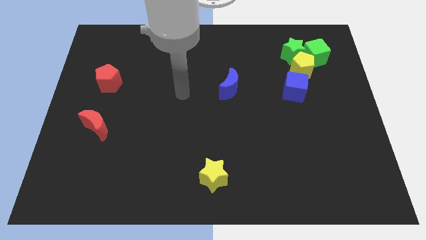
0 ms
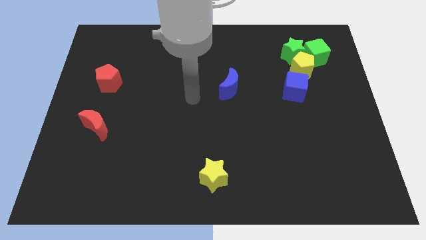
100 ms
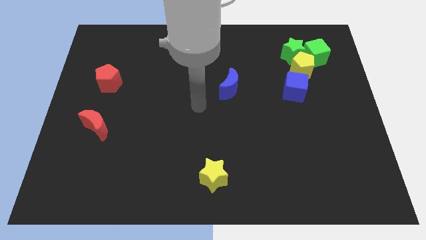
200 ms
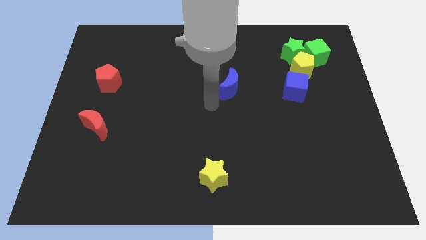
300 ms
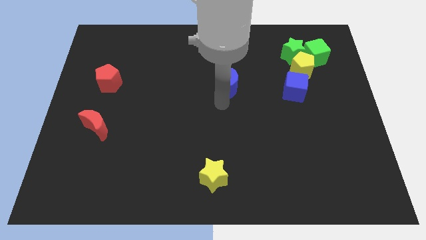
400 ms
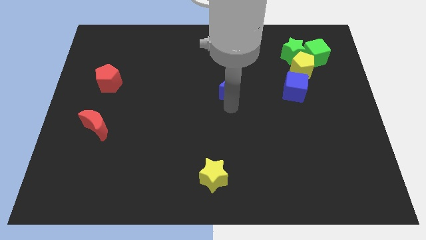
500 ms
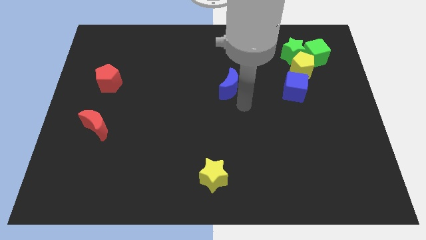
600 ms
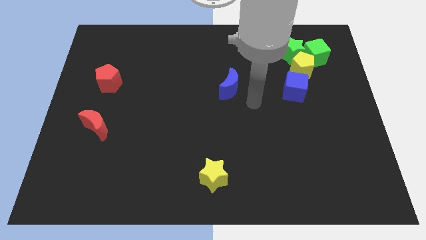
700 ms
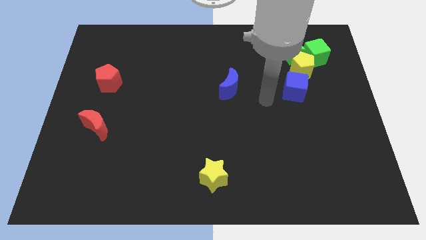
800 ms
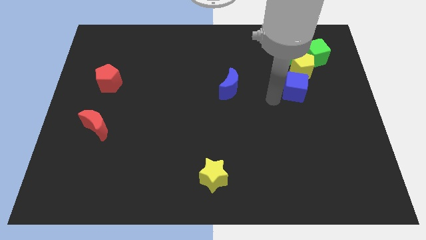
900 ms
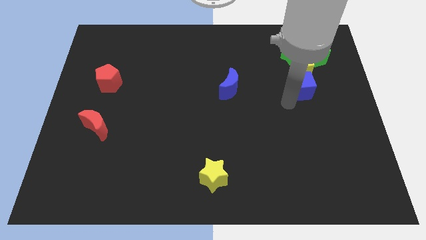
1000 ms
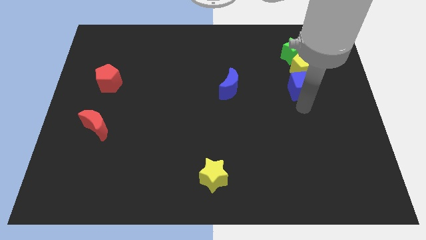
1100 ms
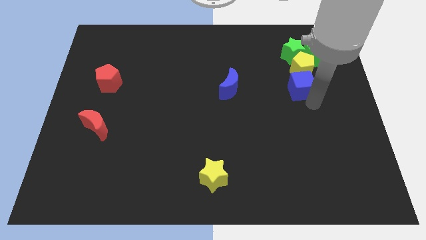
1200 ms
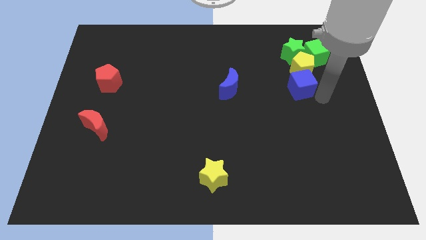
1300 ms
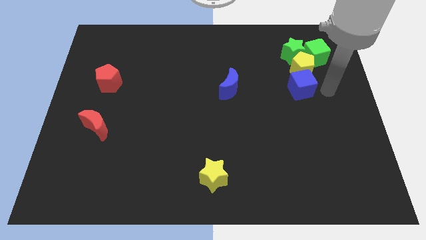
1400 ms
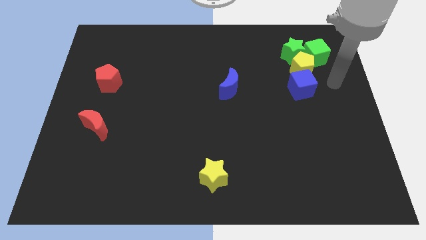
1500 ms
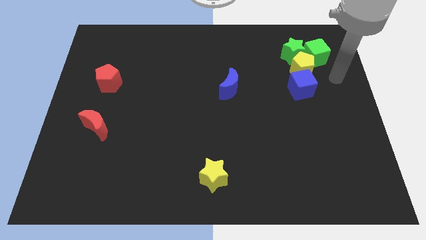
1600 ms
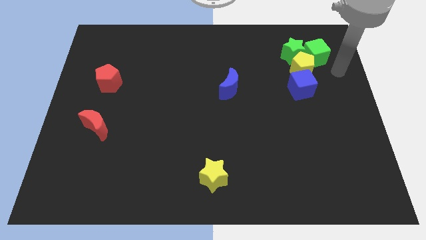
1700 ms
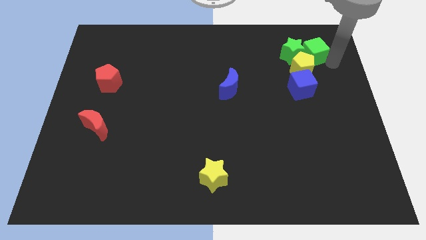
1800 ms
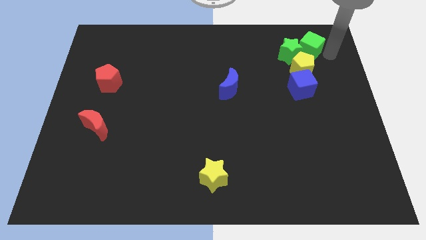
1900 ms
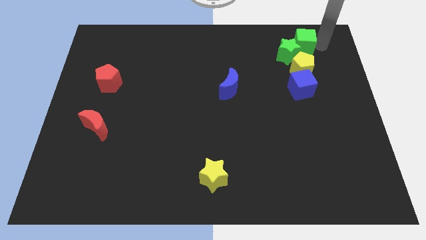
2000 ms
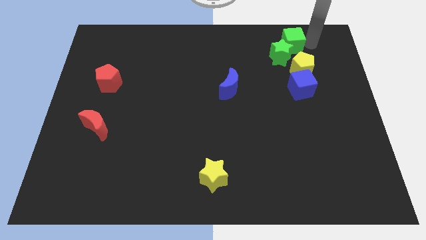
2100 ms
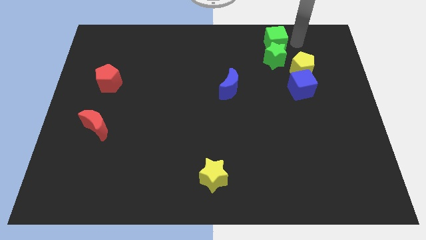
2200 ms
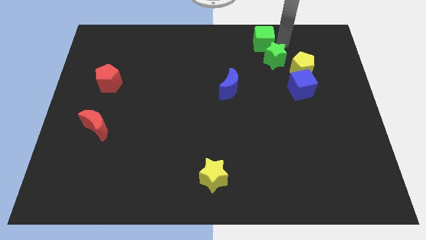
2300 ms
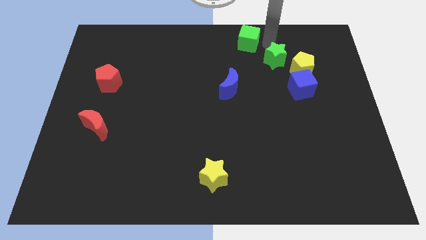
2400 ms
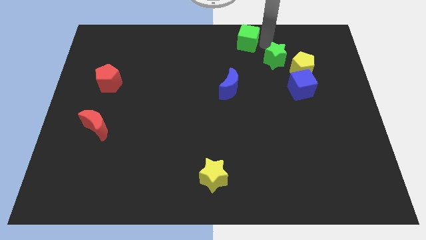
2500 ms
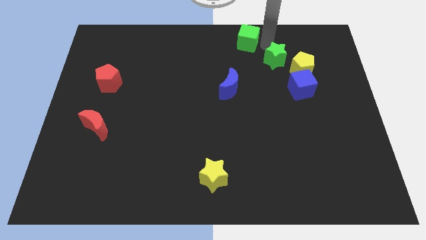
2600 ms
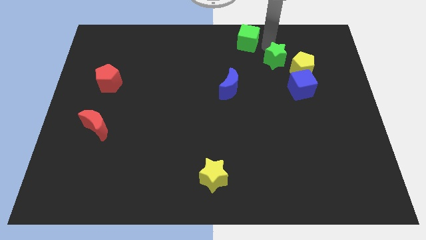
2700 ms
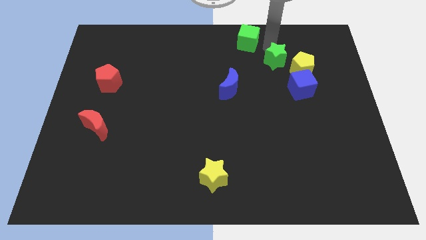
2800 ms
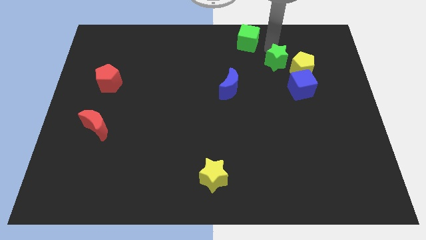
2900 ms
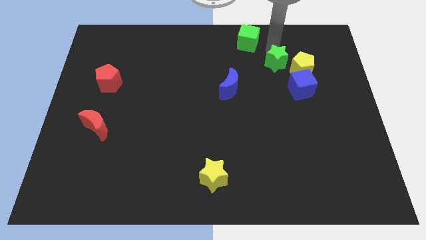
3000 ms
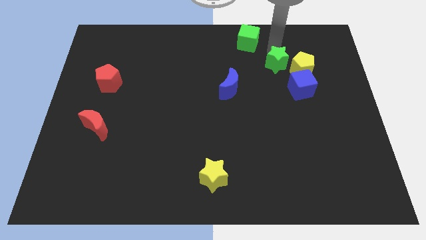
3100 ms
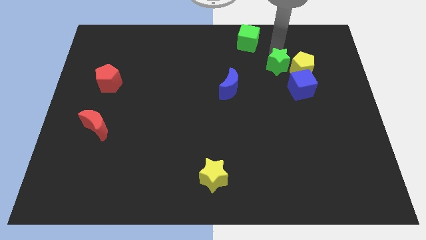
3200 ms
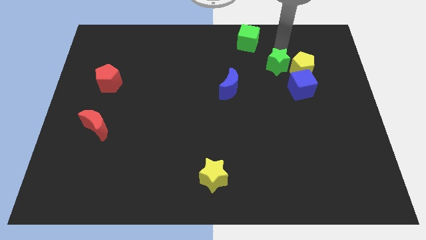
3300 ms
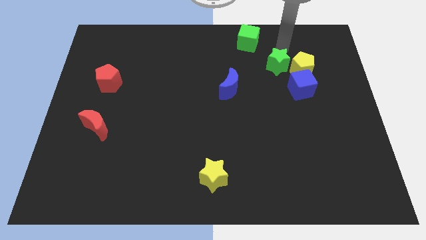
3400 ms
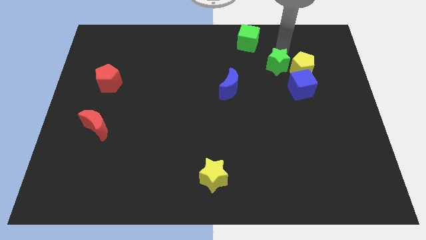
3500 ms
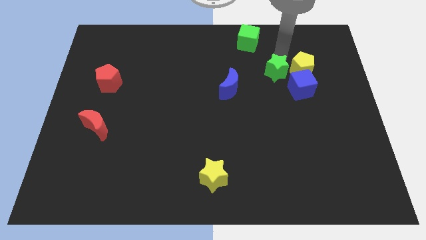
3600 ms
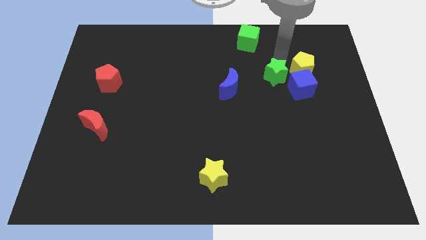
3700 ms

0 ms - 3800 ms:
move the green star just right of the blue moon

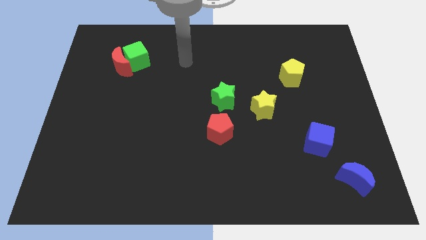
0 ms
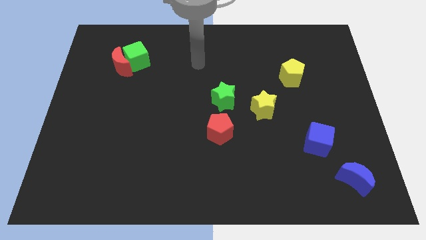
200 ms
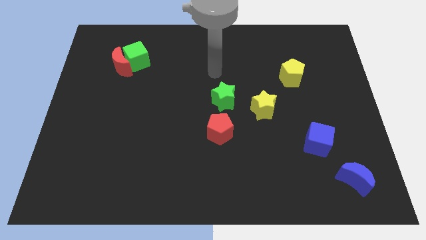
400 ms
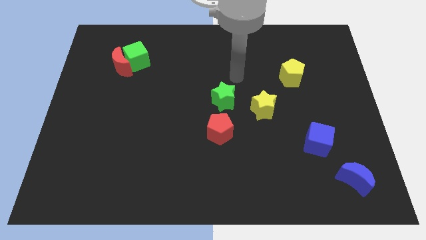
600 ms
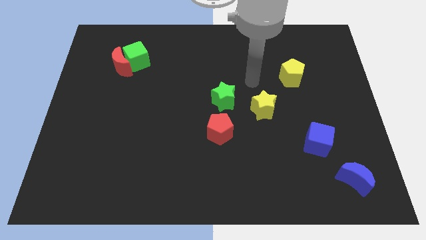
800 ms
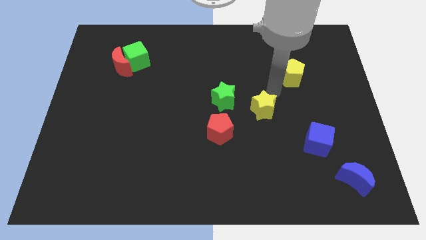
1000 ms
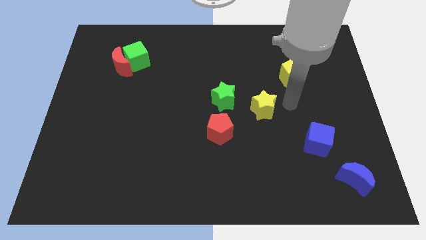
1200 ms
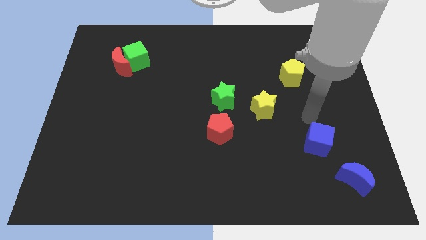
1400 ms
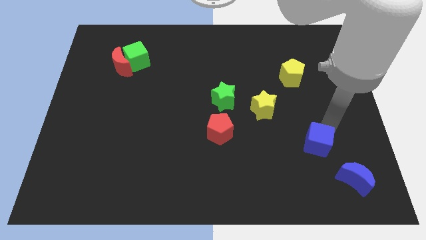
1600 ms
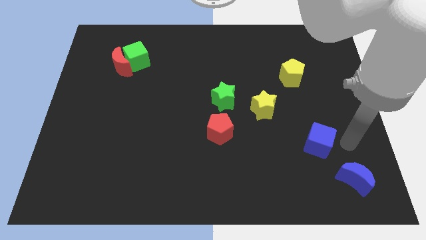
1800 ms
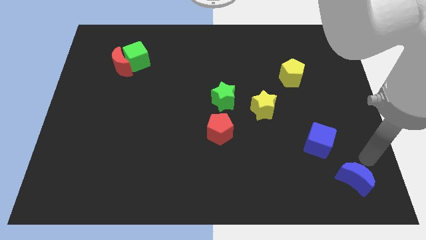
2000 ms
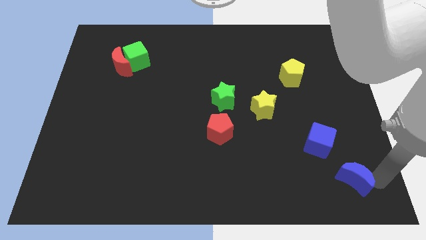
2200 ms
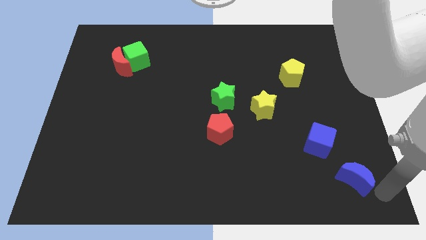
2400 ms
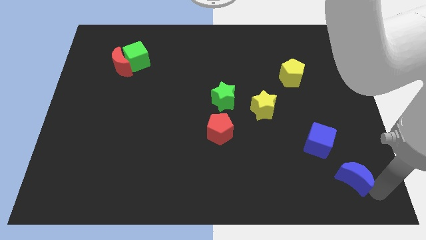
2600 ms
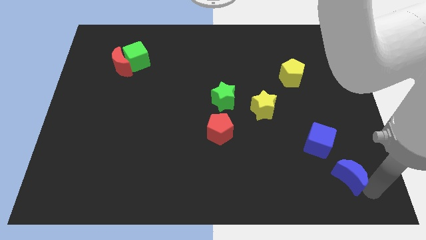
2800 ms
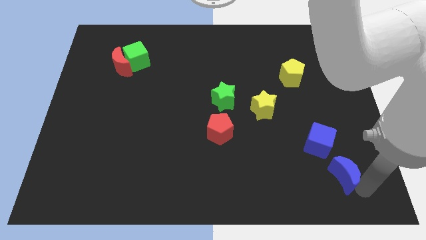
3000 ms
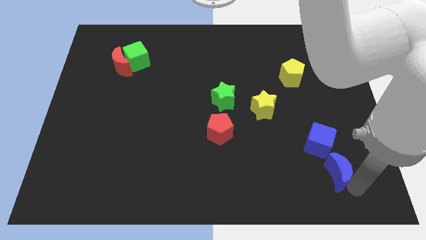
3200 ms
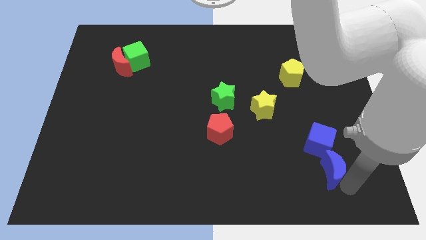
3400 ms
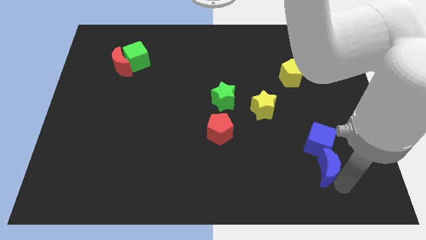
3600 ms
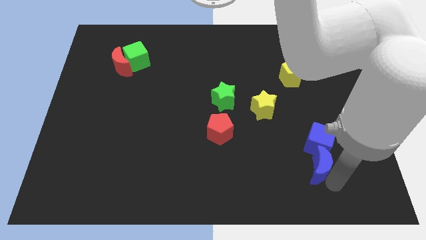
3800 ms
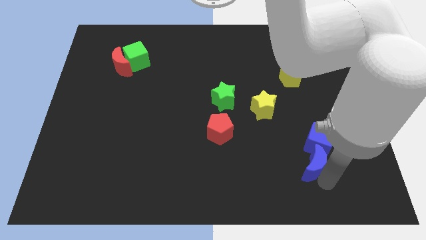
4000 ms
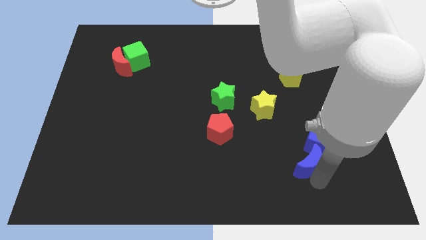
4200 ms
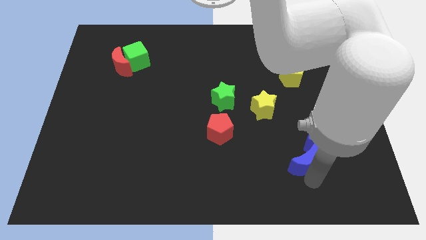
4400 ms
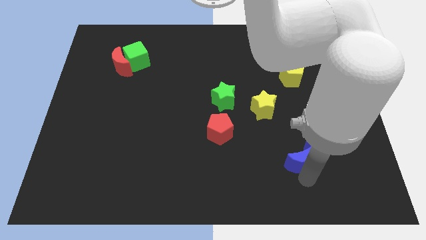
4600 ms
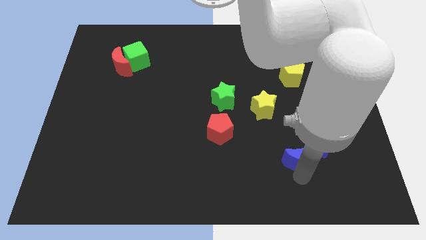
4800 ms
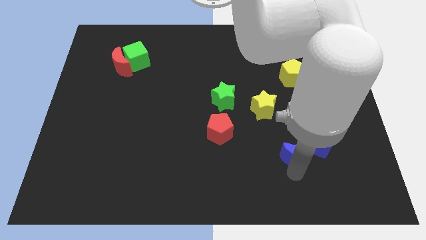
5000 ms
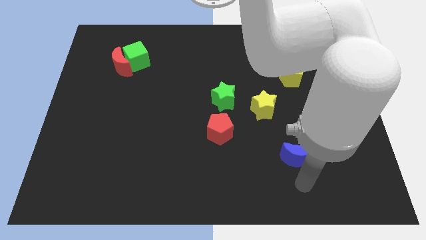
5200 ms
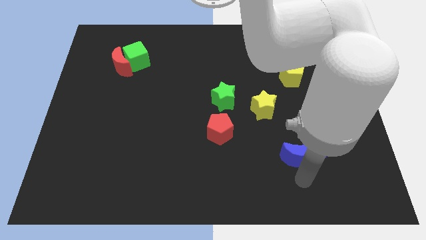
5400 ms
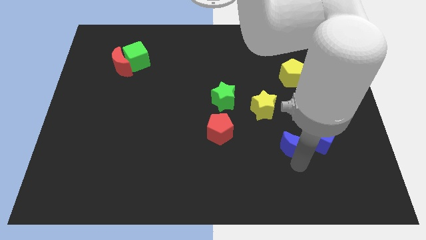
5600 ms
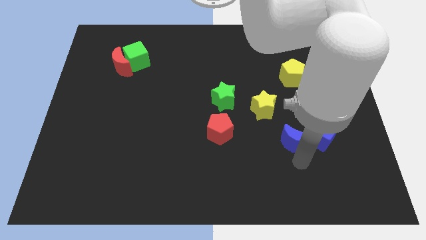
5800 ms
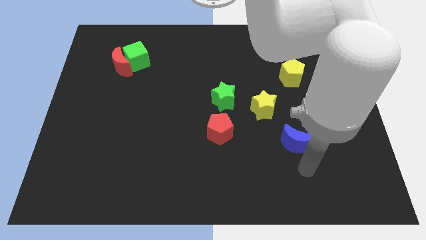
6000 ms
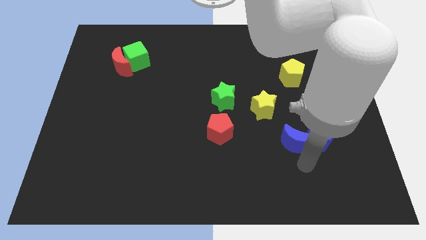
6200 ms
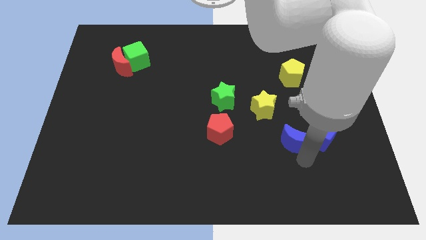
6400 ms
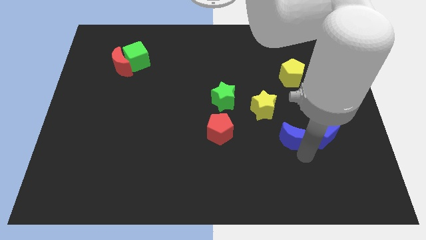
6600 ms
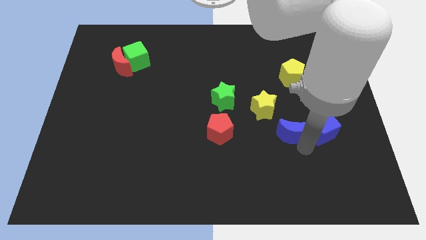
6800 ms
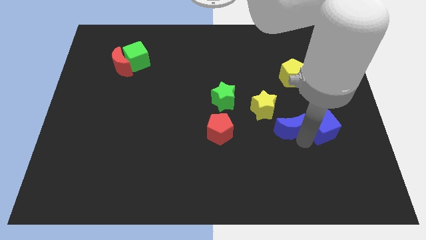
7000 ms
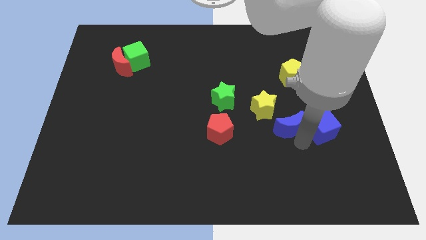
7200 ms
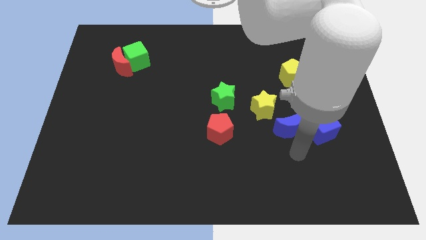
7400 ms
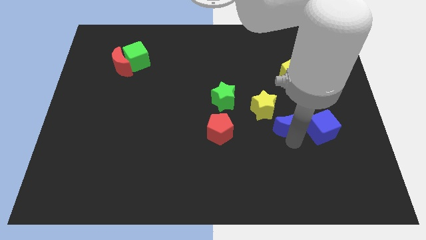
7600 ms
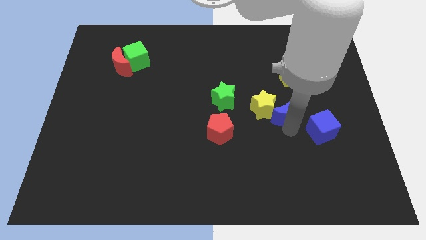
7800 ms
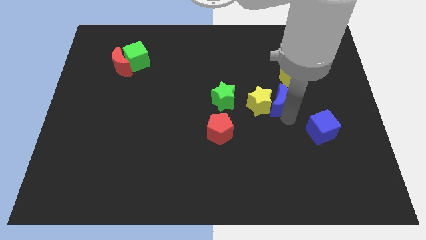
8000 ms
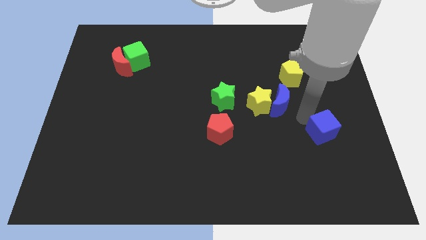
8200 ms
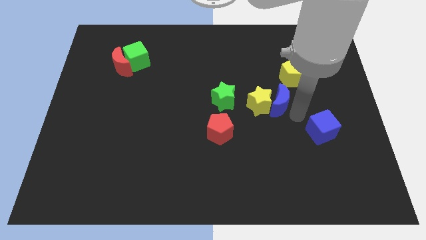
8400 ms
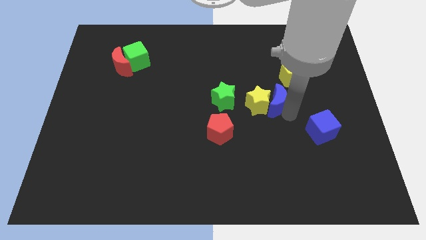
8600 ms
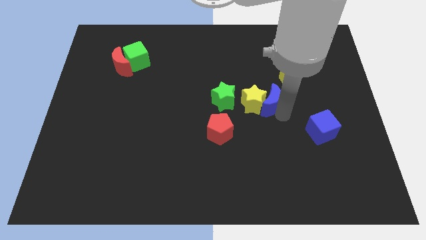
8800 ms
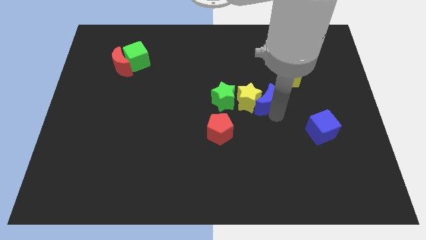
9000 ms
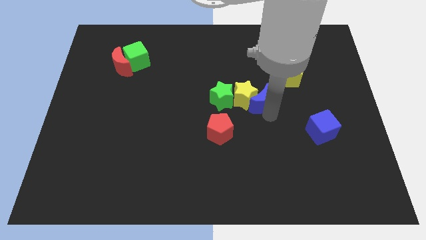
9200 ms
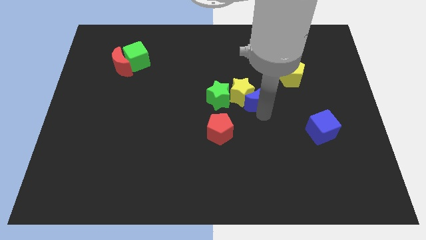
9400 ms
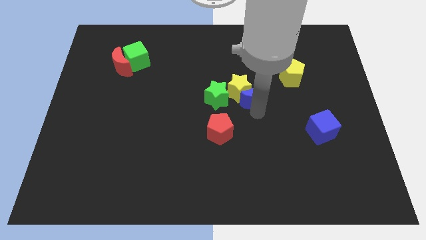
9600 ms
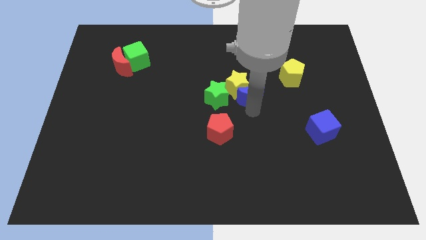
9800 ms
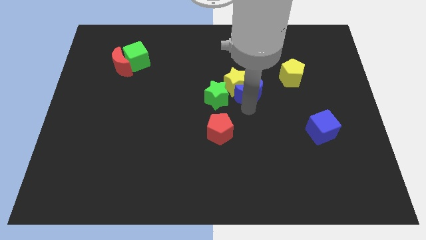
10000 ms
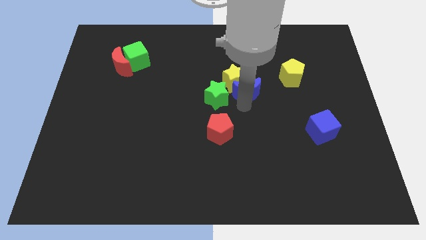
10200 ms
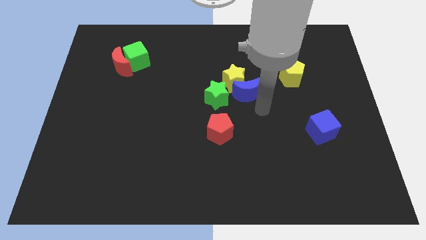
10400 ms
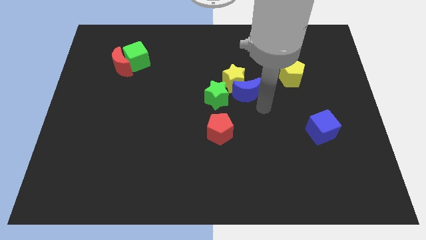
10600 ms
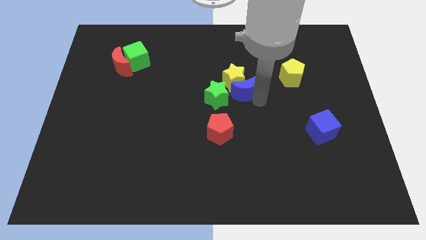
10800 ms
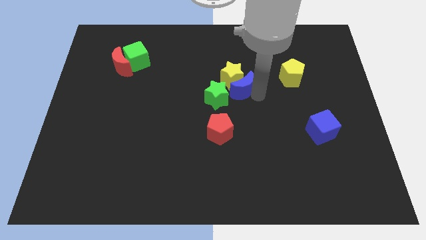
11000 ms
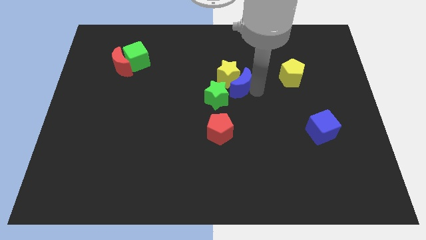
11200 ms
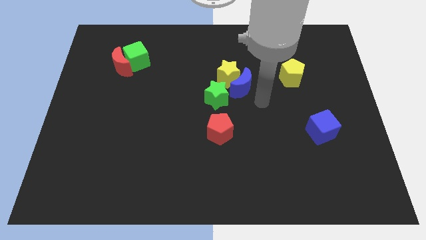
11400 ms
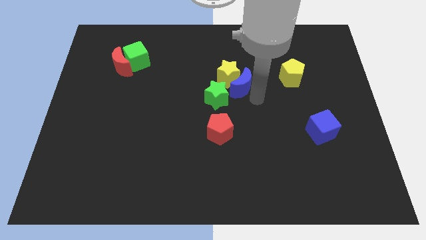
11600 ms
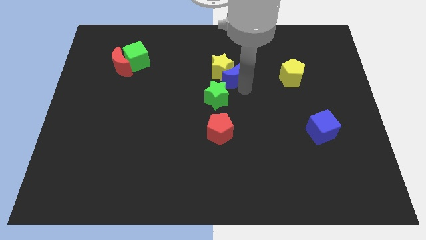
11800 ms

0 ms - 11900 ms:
slide the blue moon to the top side of the green star
